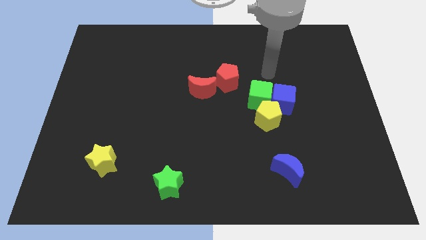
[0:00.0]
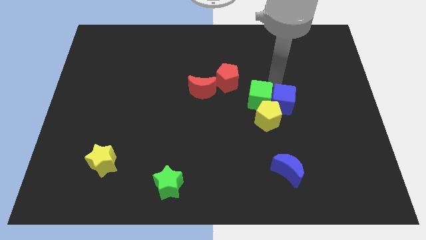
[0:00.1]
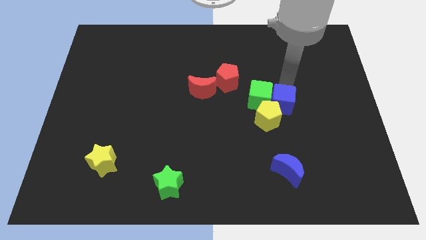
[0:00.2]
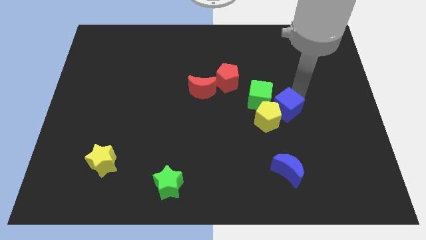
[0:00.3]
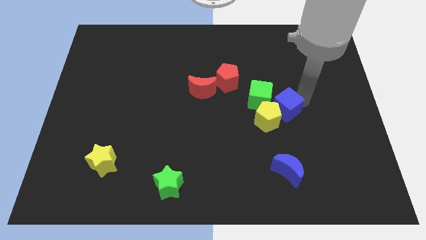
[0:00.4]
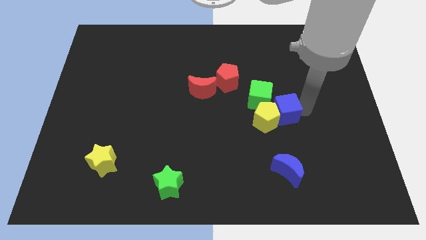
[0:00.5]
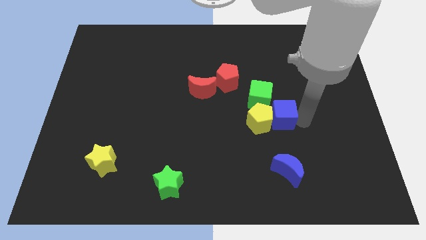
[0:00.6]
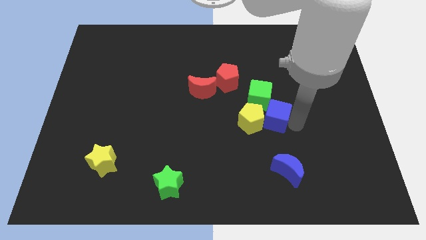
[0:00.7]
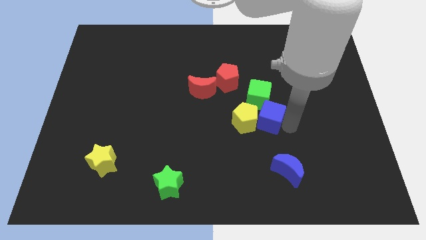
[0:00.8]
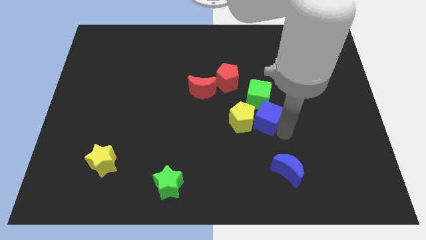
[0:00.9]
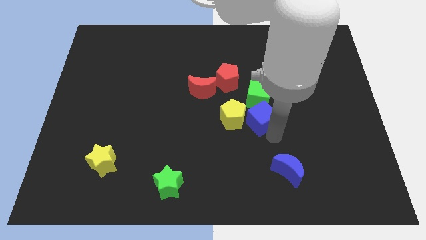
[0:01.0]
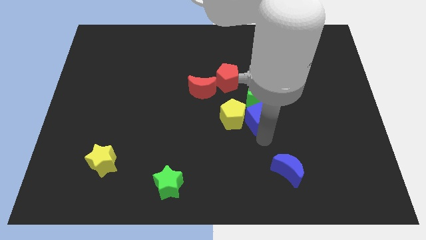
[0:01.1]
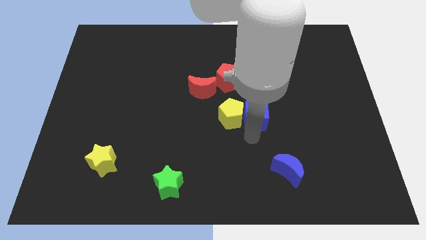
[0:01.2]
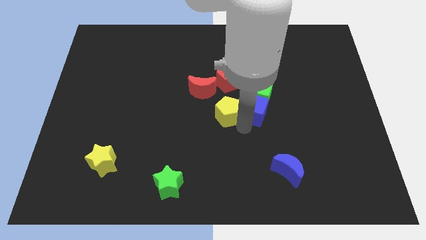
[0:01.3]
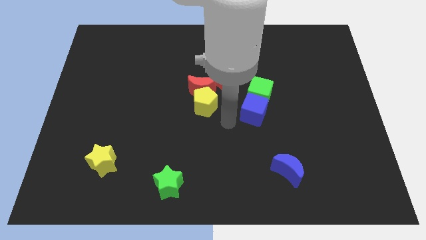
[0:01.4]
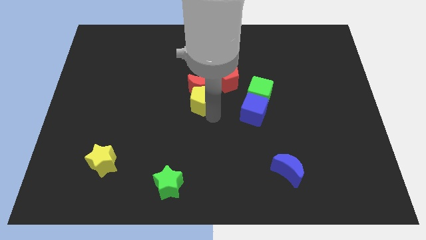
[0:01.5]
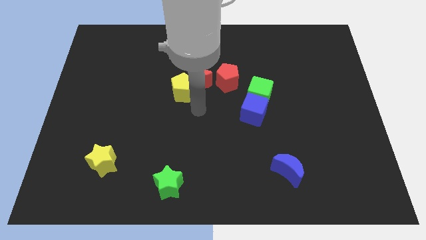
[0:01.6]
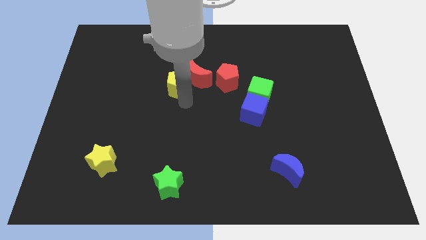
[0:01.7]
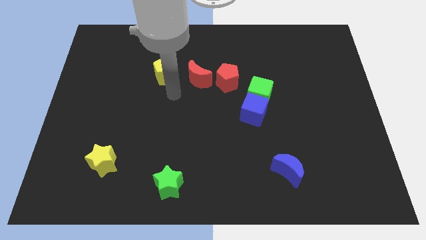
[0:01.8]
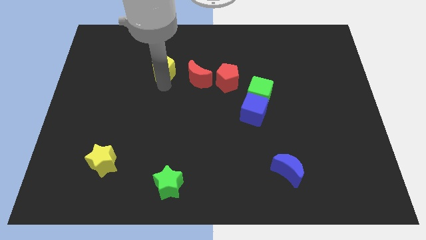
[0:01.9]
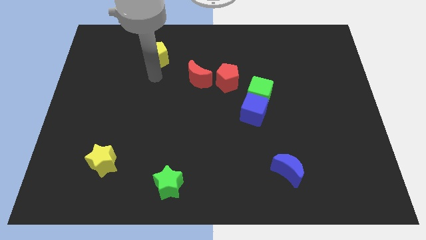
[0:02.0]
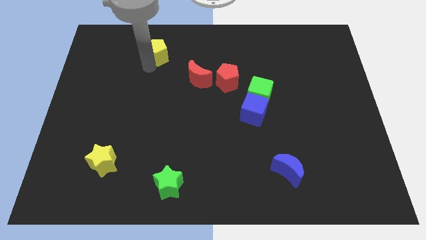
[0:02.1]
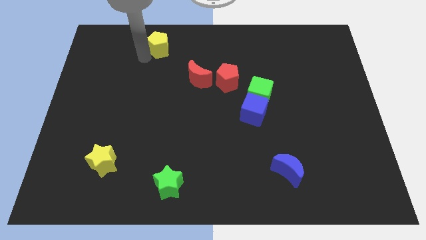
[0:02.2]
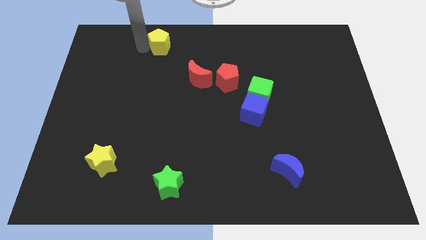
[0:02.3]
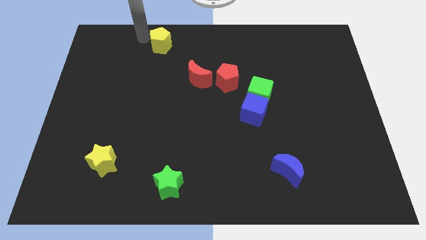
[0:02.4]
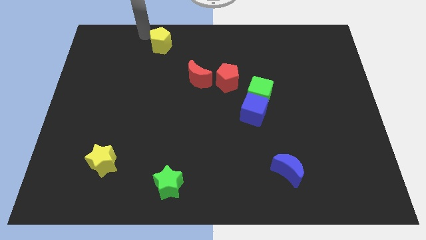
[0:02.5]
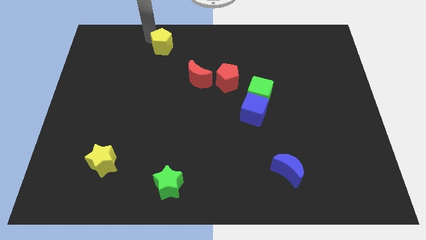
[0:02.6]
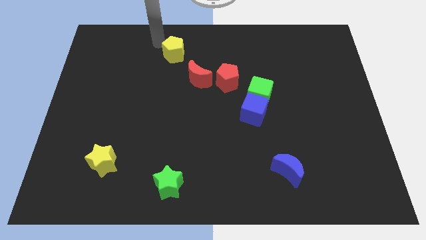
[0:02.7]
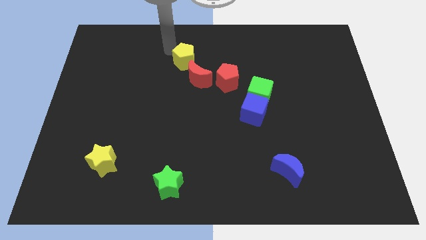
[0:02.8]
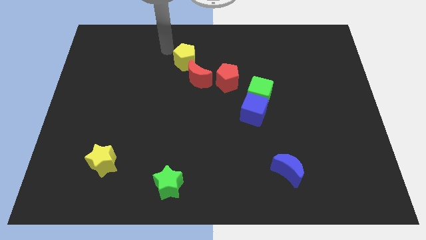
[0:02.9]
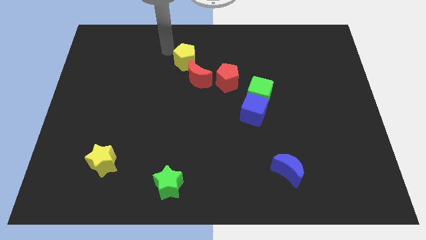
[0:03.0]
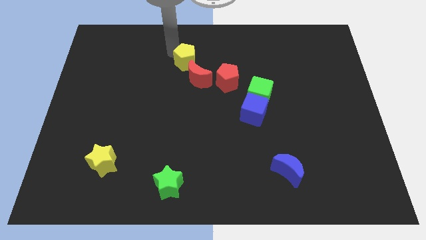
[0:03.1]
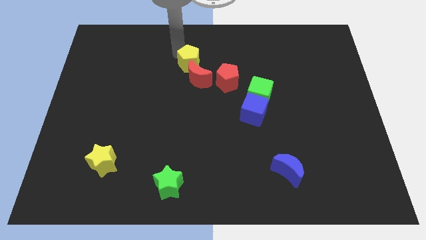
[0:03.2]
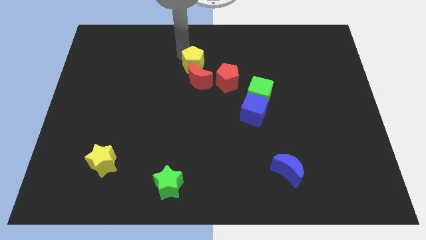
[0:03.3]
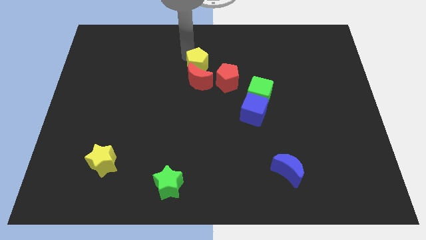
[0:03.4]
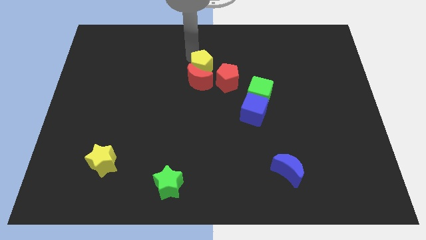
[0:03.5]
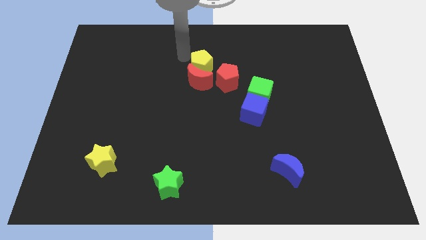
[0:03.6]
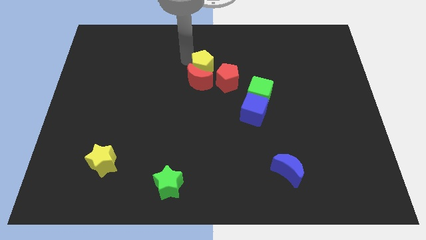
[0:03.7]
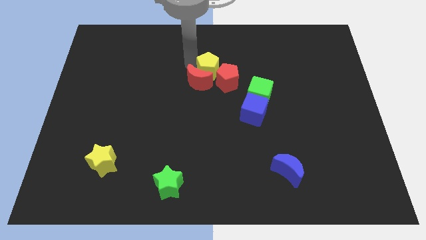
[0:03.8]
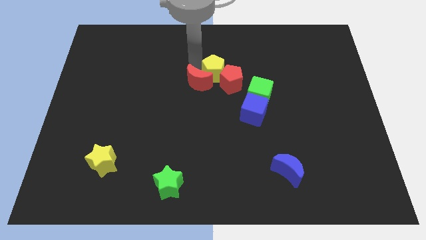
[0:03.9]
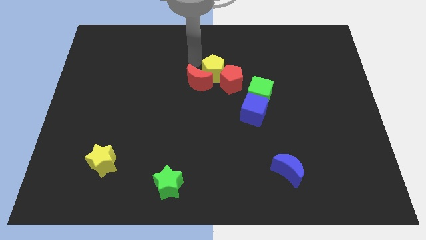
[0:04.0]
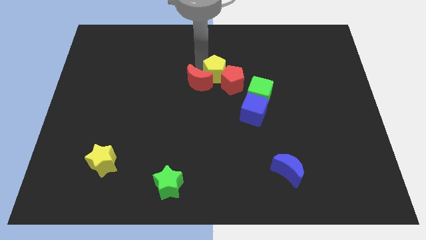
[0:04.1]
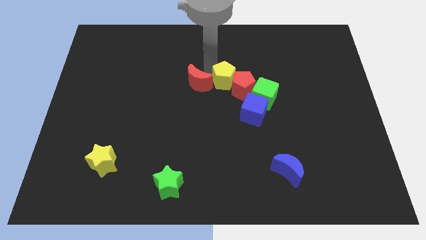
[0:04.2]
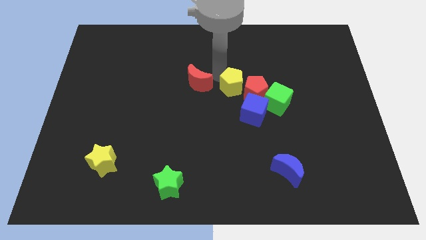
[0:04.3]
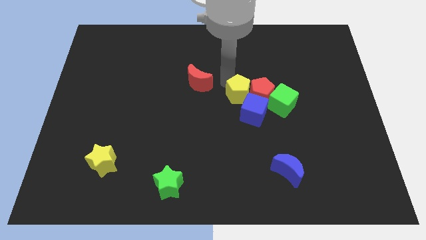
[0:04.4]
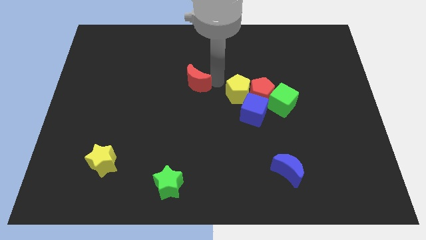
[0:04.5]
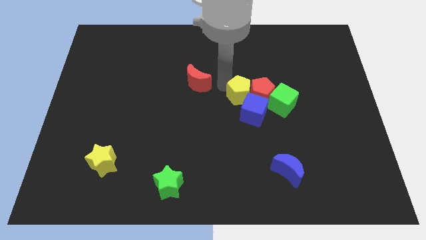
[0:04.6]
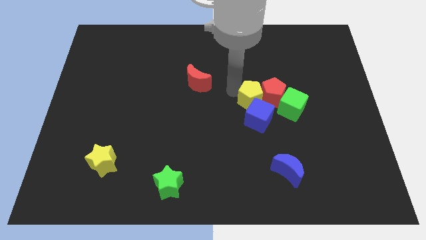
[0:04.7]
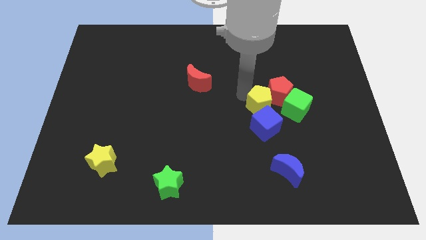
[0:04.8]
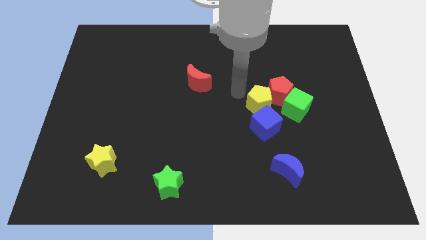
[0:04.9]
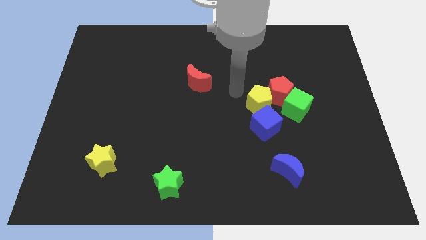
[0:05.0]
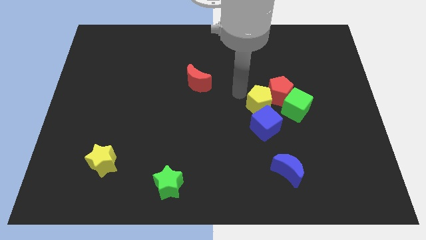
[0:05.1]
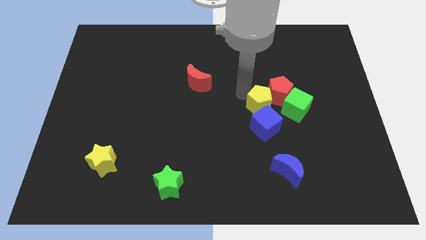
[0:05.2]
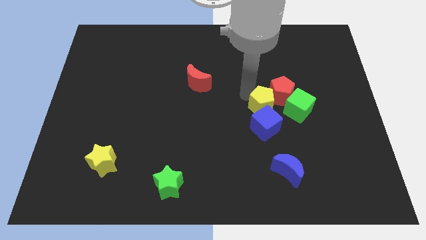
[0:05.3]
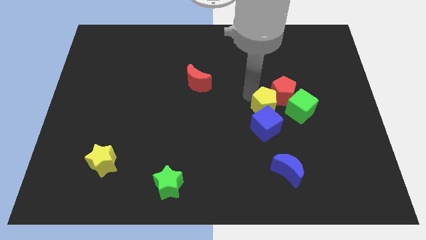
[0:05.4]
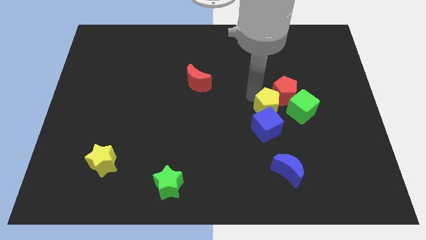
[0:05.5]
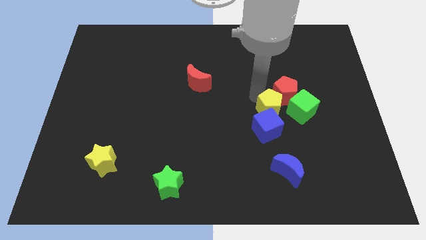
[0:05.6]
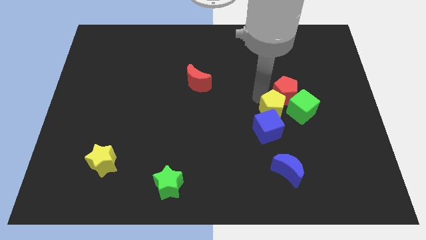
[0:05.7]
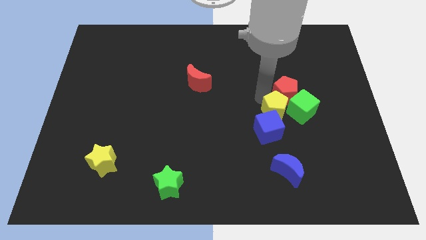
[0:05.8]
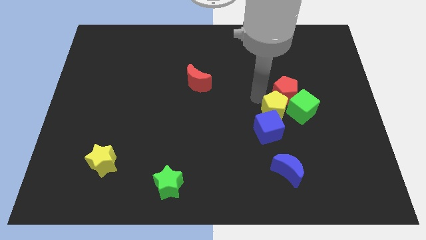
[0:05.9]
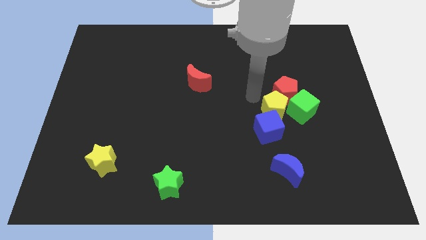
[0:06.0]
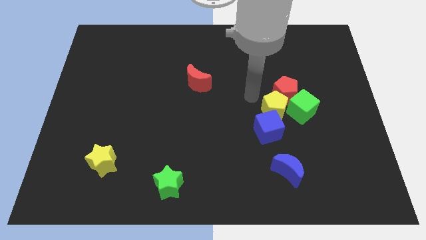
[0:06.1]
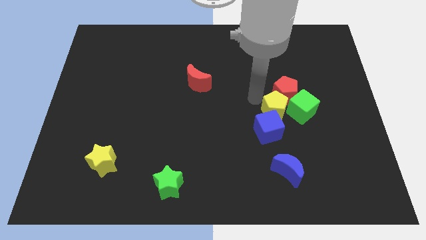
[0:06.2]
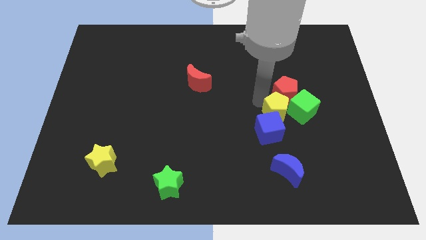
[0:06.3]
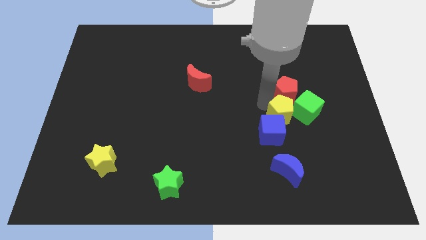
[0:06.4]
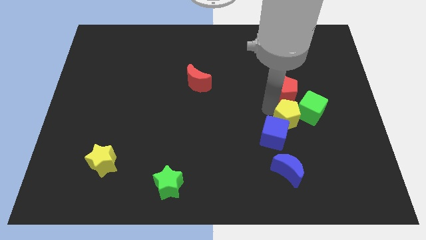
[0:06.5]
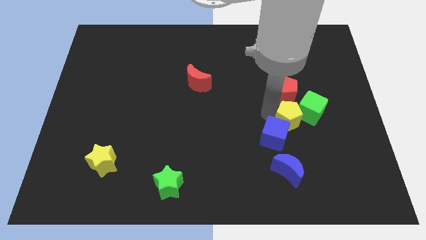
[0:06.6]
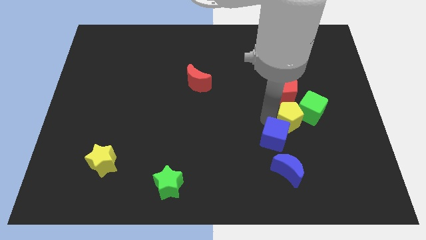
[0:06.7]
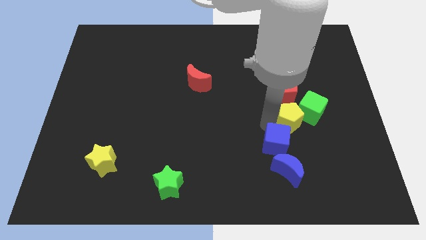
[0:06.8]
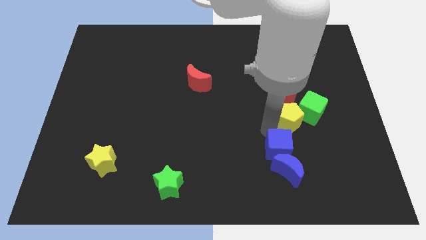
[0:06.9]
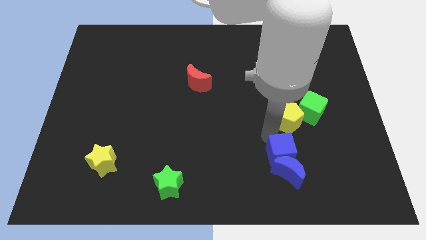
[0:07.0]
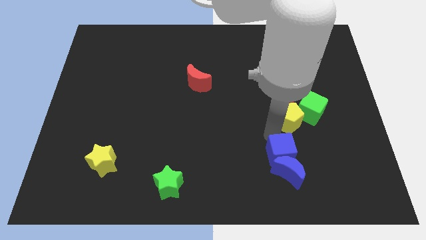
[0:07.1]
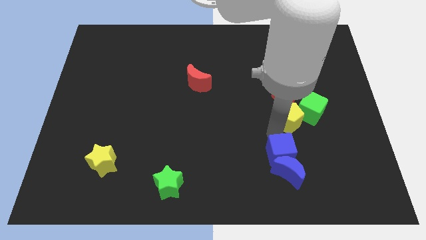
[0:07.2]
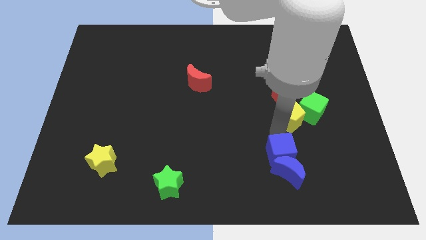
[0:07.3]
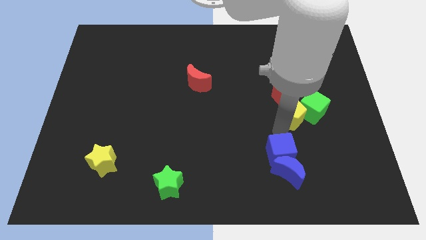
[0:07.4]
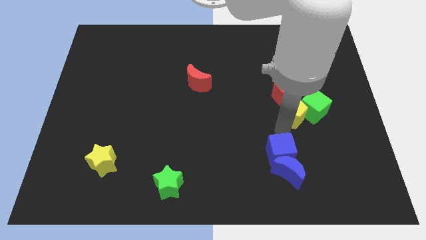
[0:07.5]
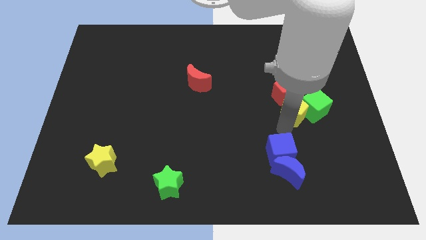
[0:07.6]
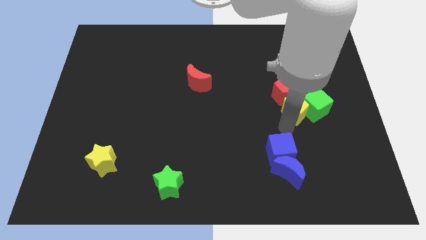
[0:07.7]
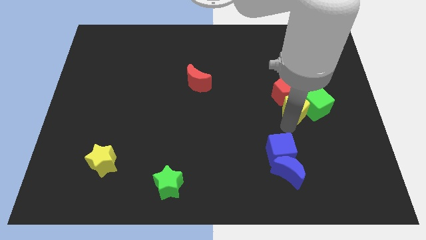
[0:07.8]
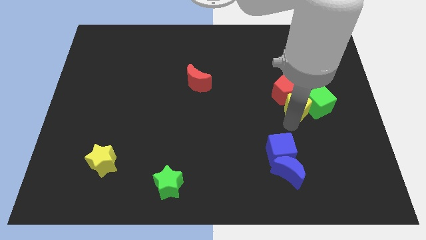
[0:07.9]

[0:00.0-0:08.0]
push the yellow pentagon up and right slightly
